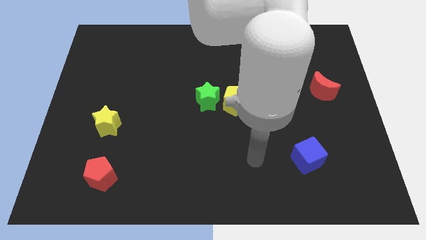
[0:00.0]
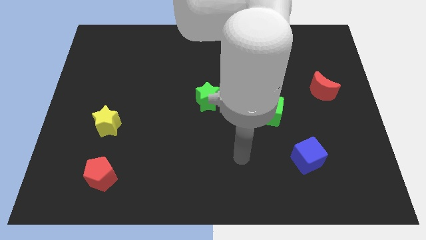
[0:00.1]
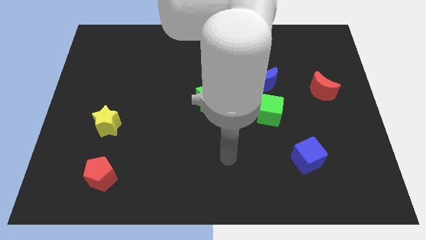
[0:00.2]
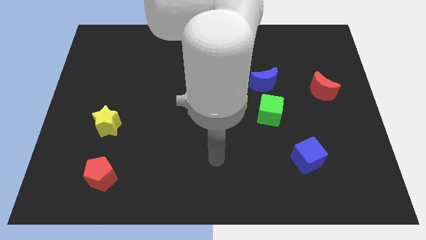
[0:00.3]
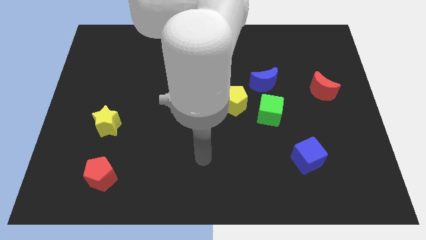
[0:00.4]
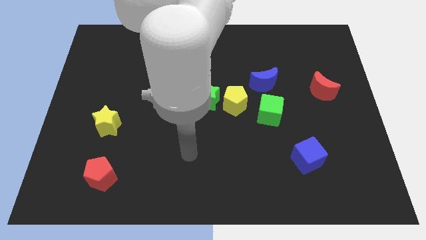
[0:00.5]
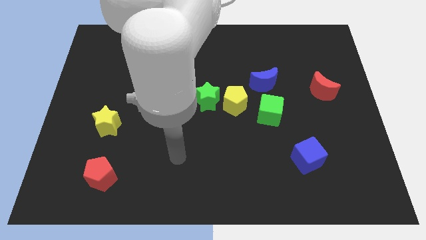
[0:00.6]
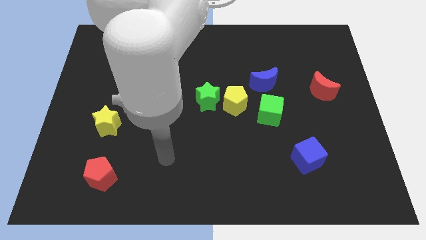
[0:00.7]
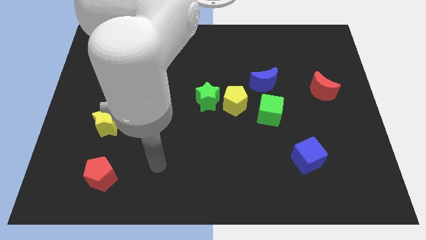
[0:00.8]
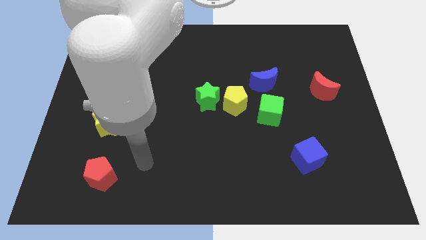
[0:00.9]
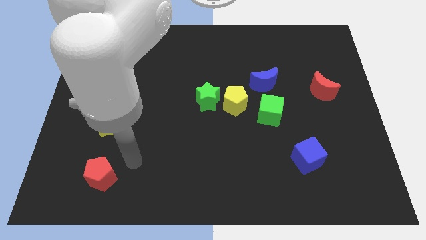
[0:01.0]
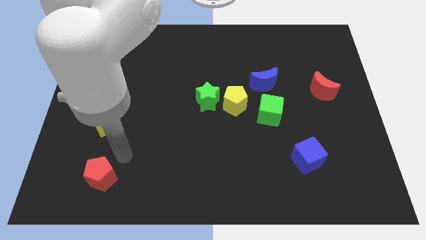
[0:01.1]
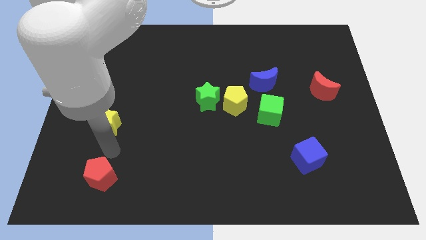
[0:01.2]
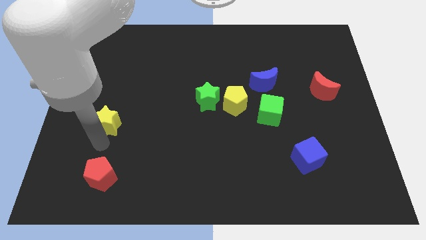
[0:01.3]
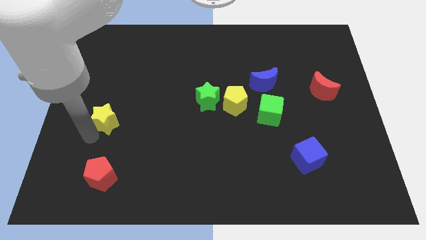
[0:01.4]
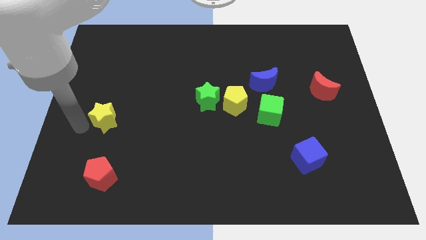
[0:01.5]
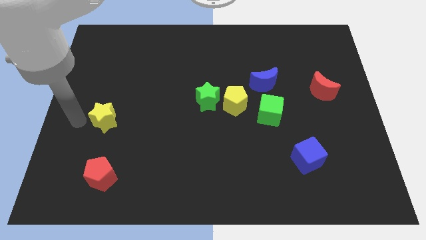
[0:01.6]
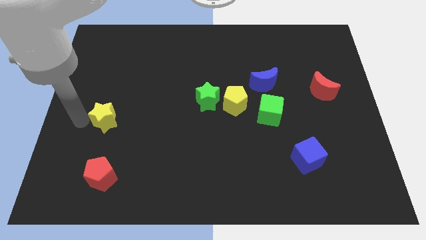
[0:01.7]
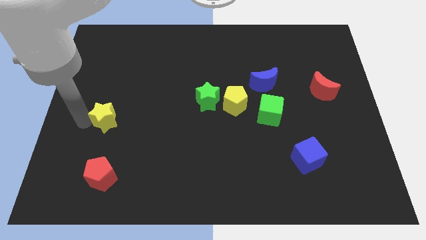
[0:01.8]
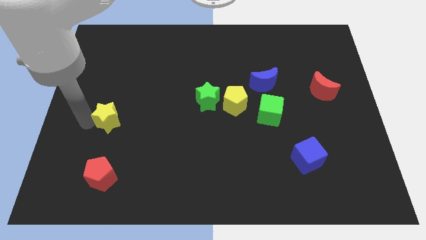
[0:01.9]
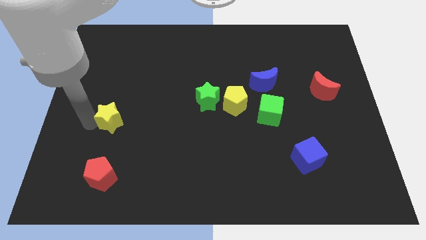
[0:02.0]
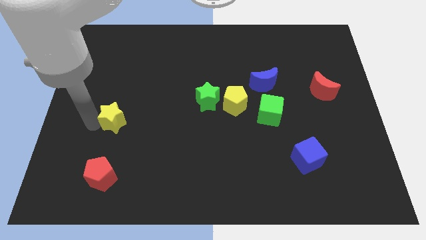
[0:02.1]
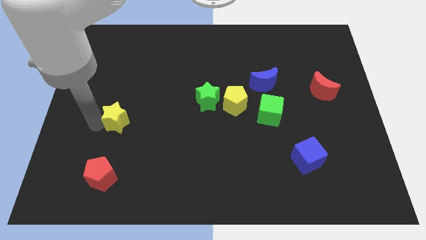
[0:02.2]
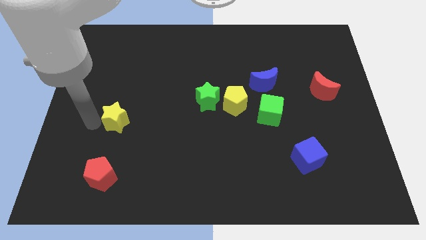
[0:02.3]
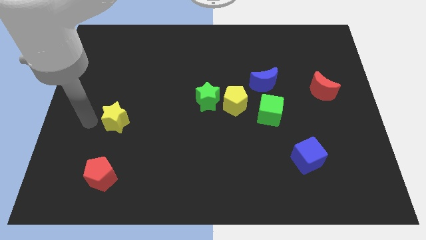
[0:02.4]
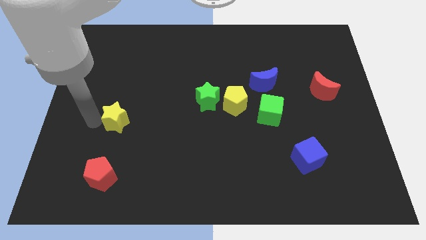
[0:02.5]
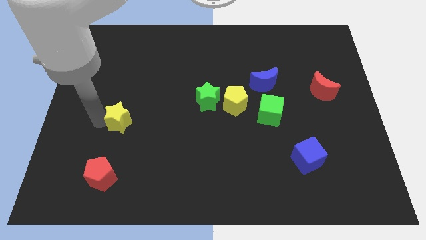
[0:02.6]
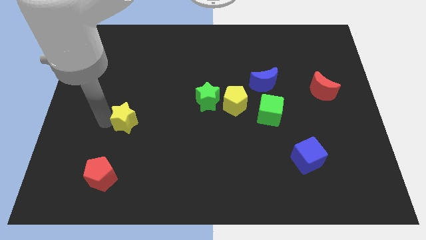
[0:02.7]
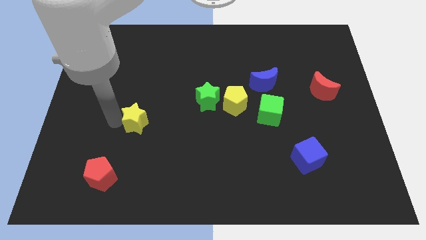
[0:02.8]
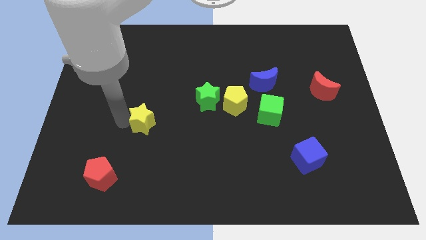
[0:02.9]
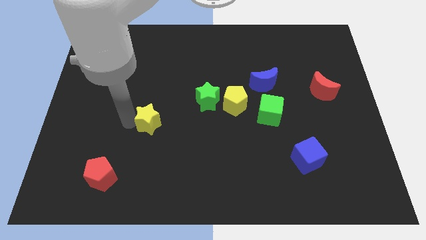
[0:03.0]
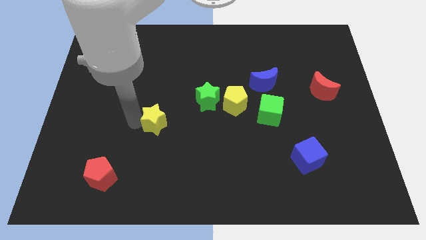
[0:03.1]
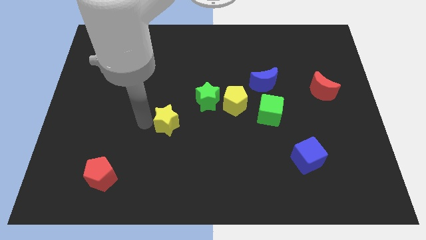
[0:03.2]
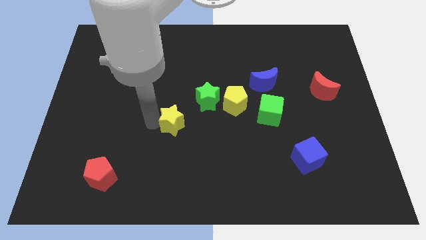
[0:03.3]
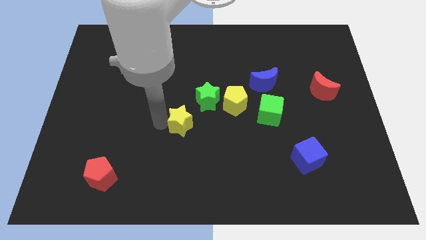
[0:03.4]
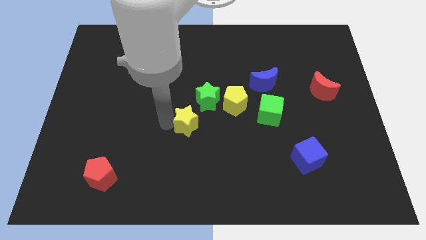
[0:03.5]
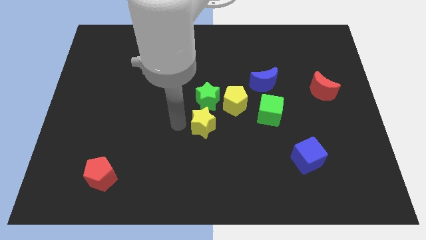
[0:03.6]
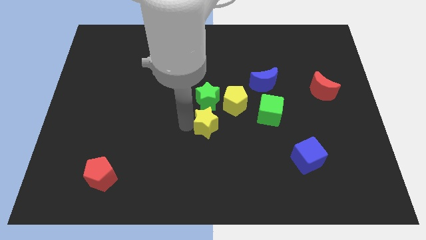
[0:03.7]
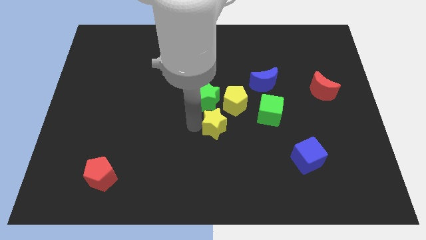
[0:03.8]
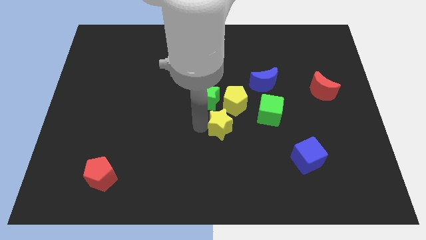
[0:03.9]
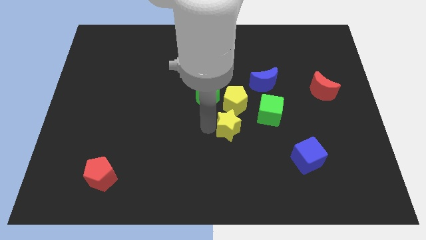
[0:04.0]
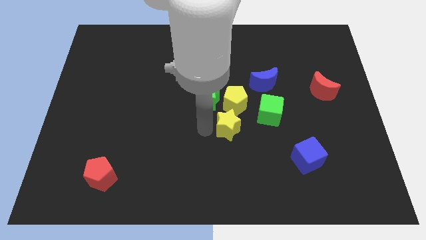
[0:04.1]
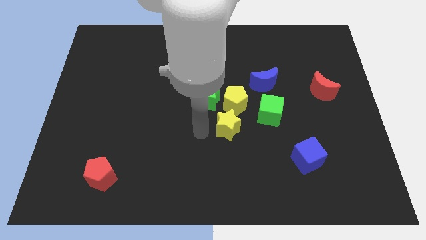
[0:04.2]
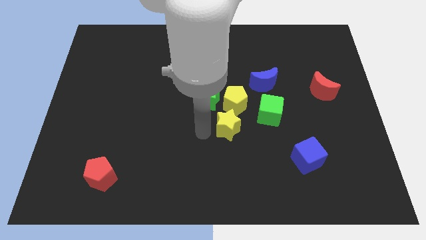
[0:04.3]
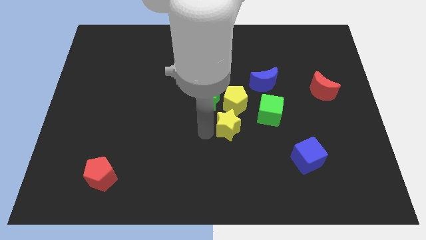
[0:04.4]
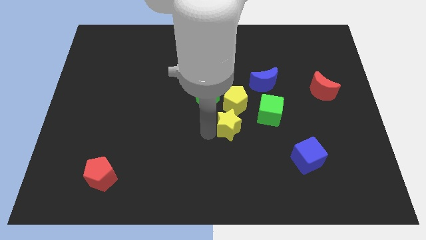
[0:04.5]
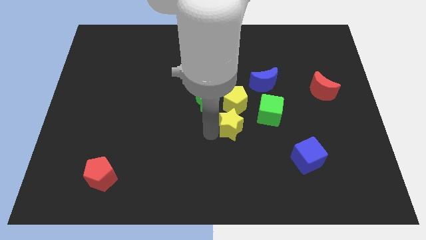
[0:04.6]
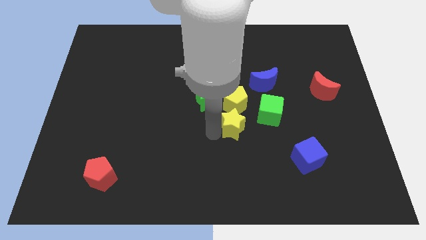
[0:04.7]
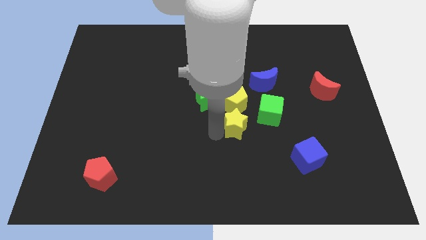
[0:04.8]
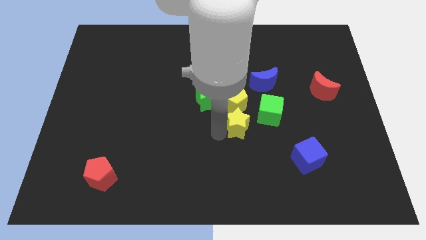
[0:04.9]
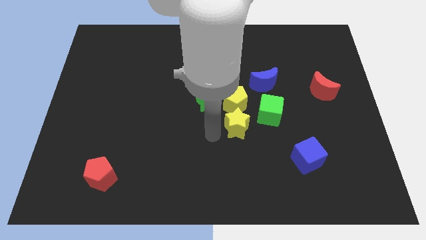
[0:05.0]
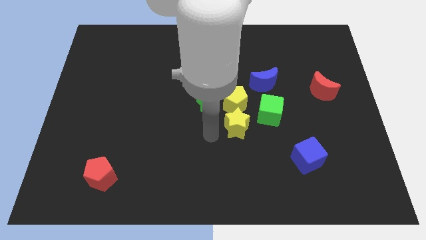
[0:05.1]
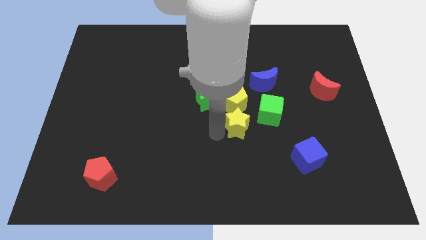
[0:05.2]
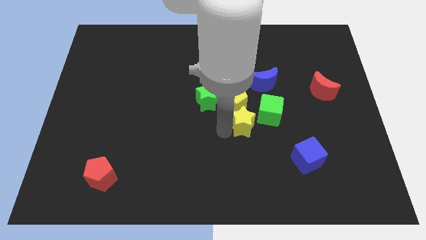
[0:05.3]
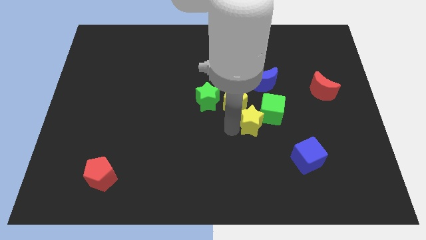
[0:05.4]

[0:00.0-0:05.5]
slide the yellow star to the bottom of the blue moon

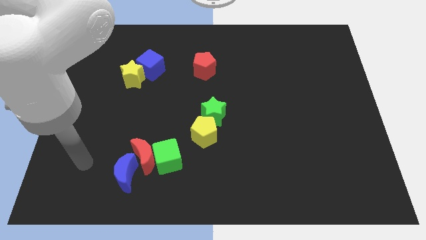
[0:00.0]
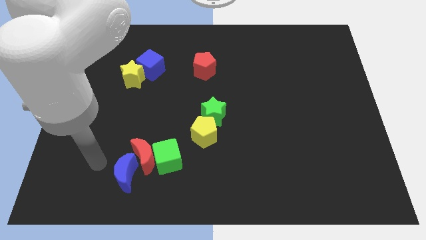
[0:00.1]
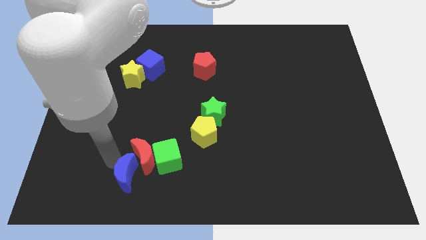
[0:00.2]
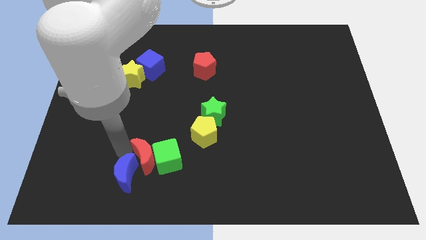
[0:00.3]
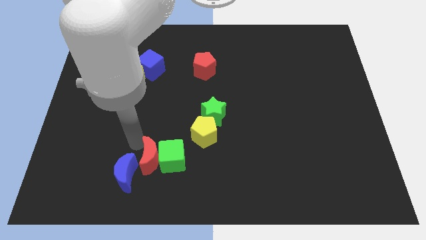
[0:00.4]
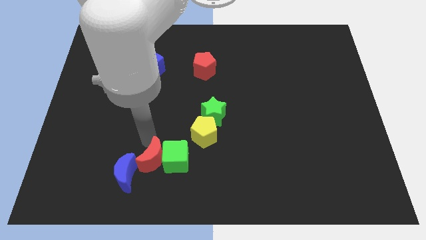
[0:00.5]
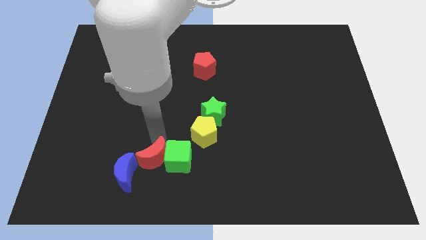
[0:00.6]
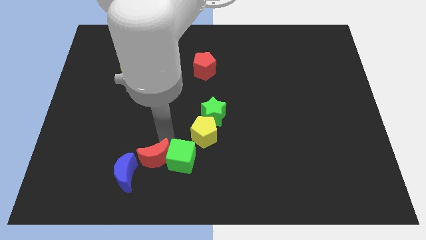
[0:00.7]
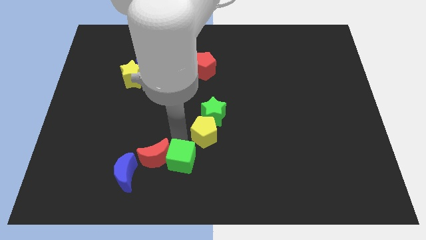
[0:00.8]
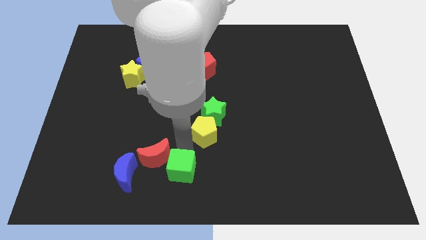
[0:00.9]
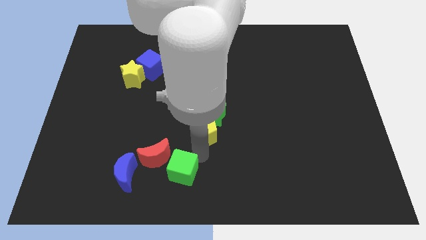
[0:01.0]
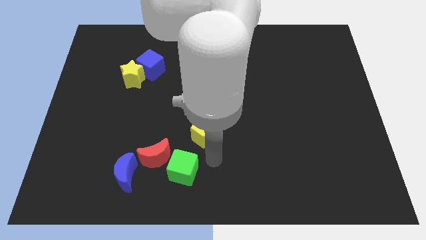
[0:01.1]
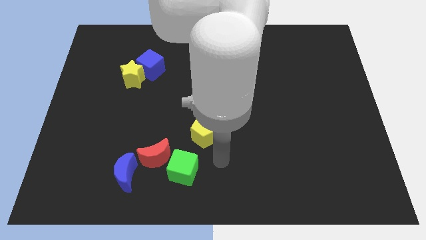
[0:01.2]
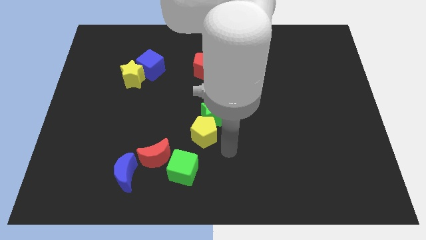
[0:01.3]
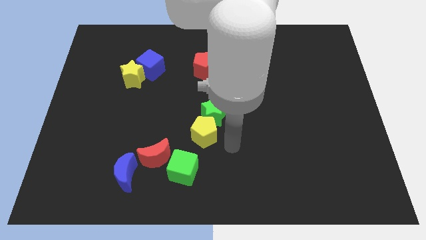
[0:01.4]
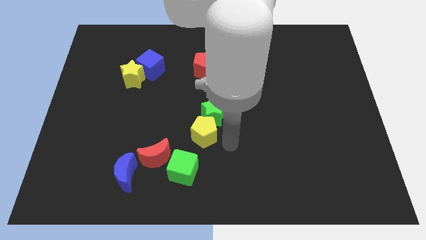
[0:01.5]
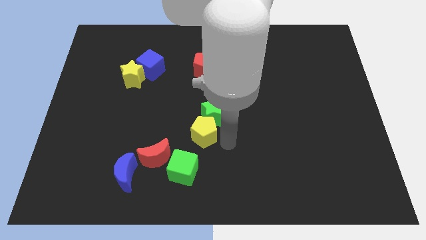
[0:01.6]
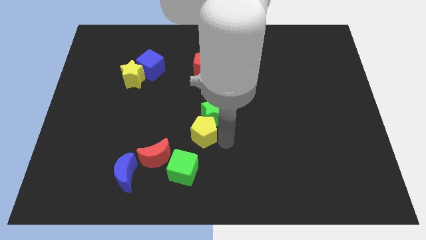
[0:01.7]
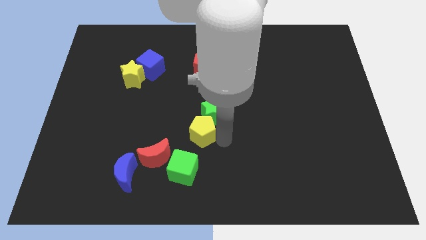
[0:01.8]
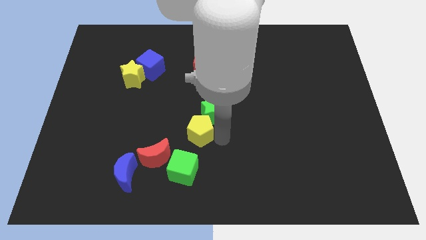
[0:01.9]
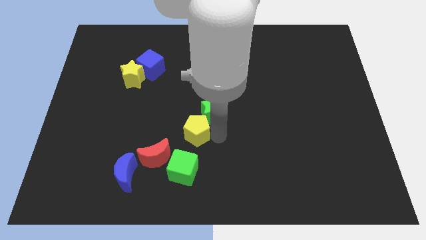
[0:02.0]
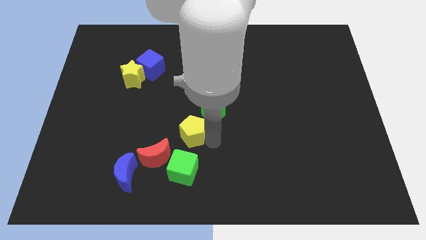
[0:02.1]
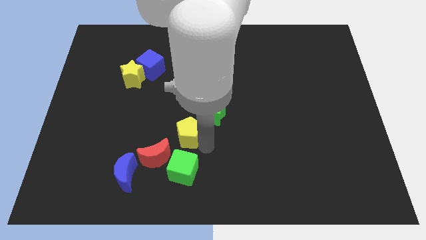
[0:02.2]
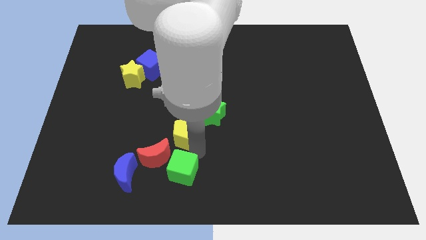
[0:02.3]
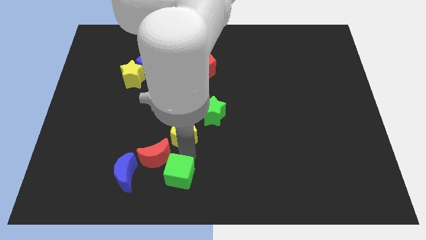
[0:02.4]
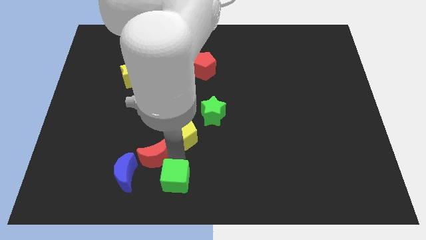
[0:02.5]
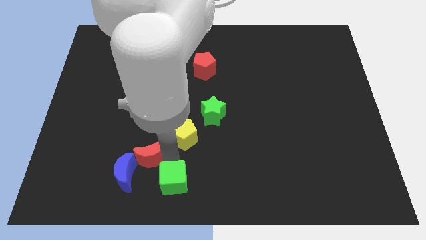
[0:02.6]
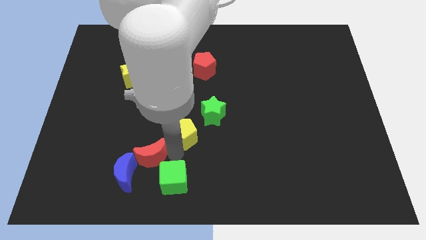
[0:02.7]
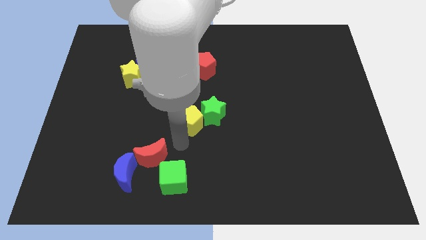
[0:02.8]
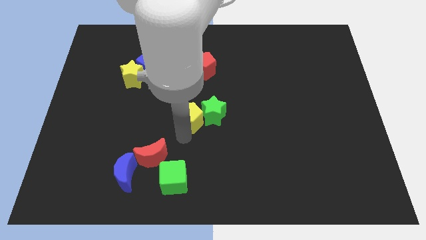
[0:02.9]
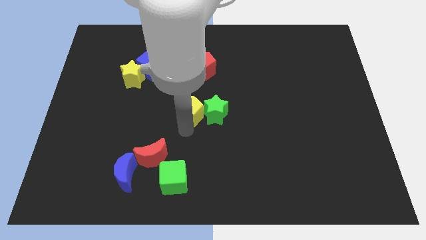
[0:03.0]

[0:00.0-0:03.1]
slide the yellow pentagon to the bottom of the red pentagon
